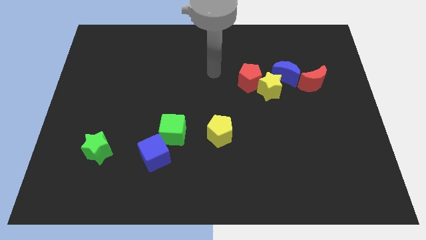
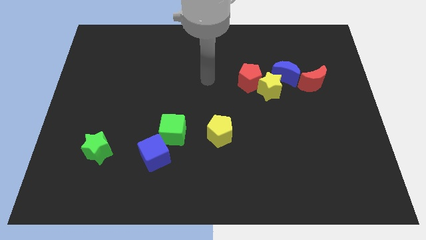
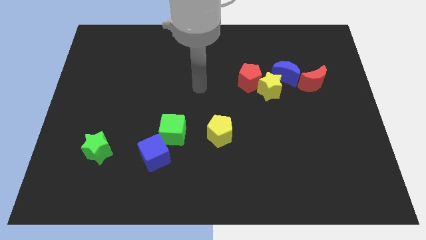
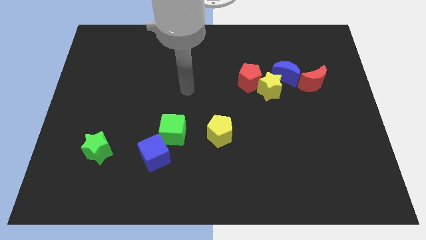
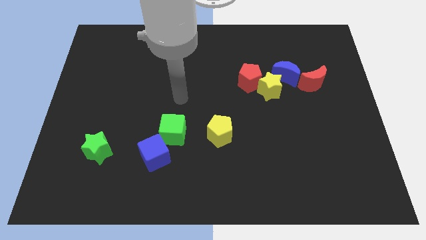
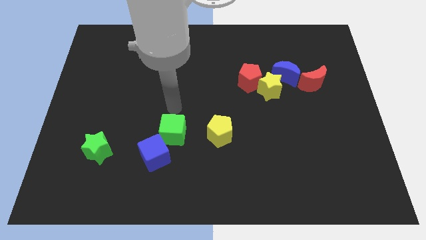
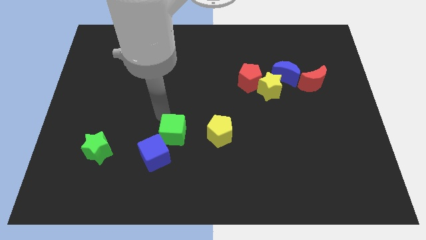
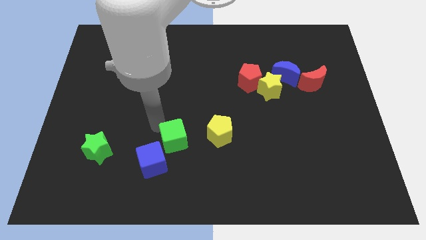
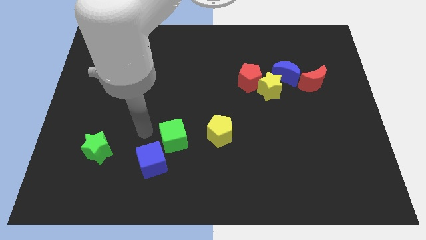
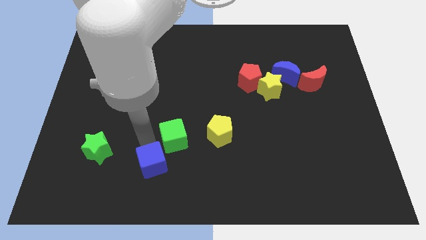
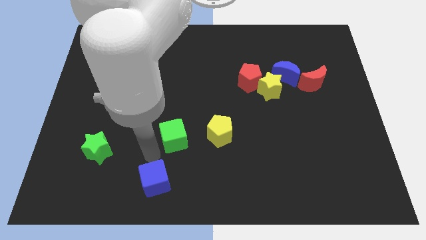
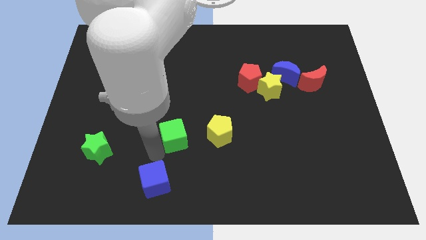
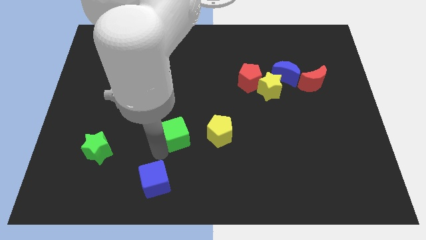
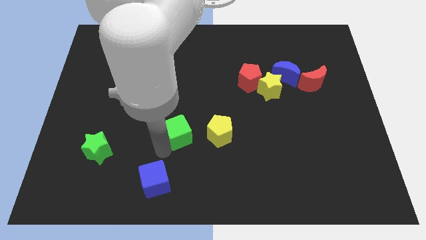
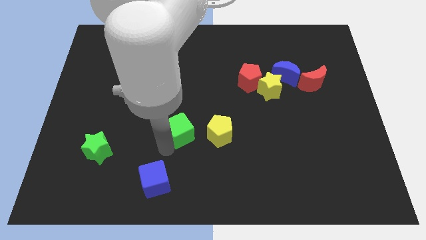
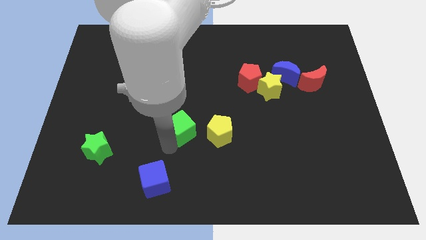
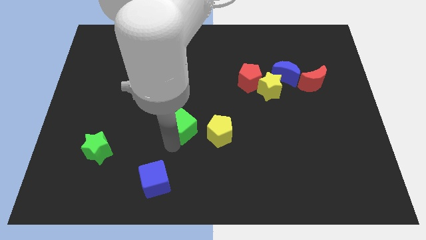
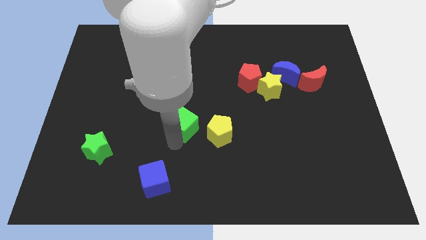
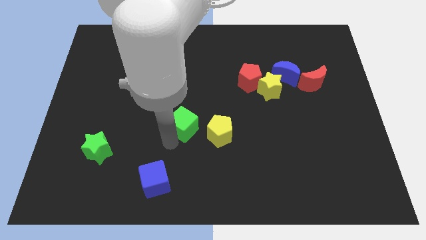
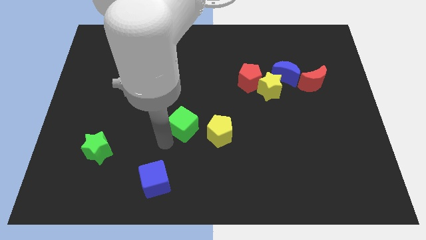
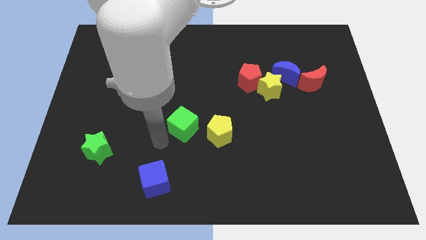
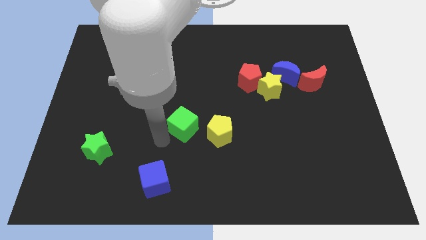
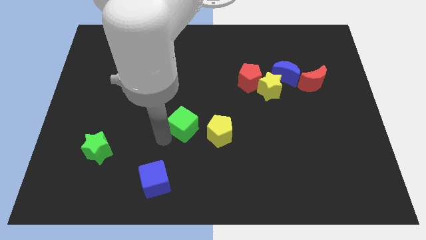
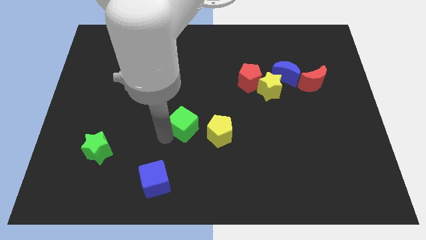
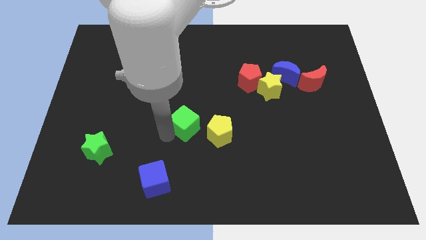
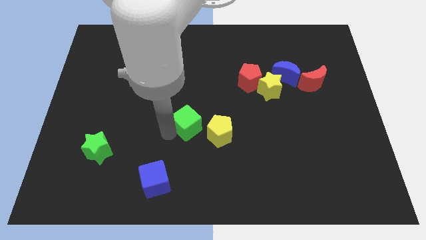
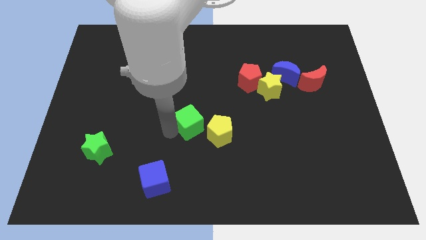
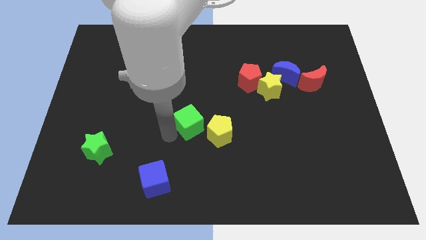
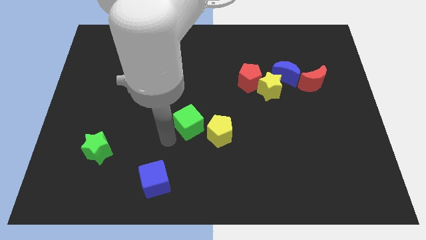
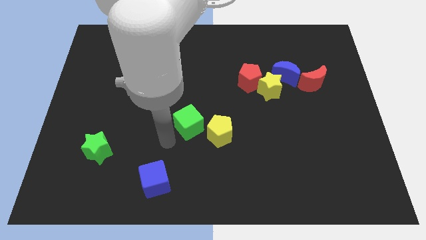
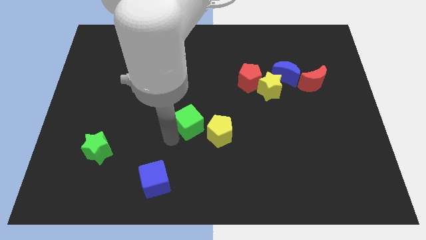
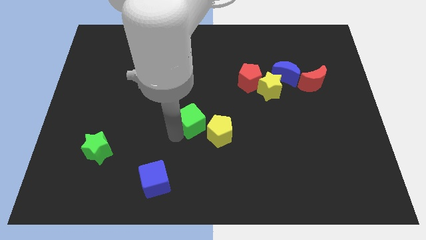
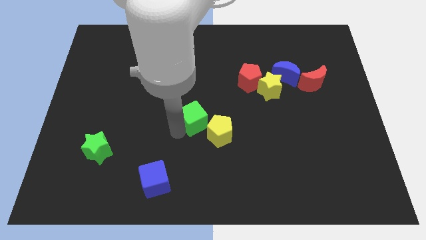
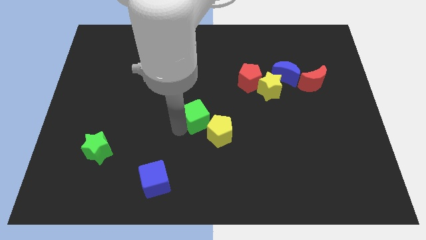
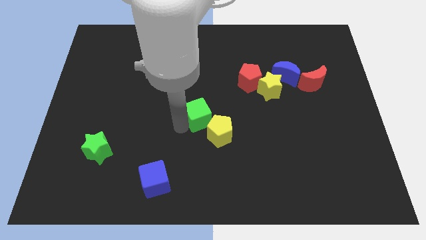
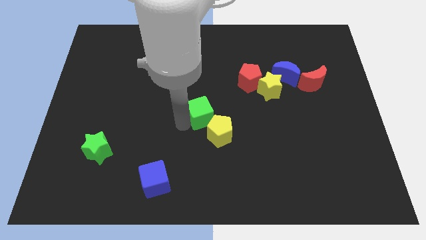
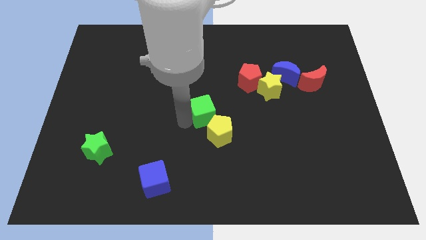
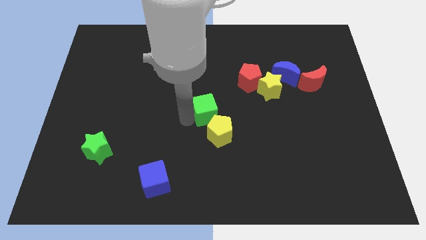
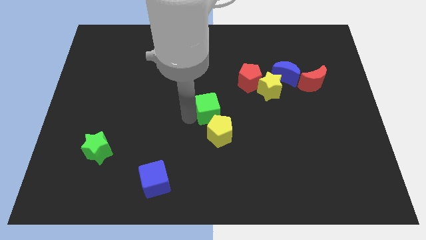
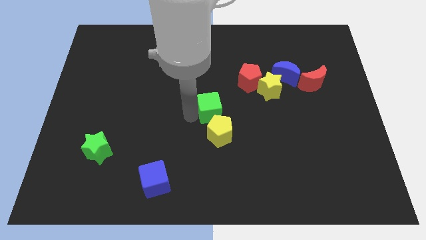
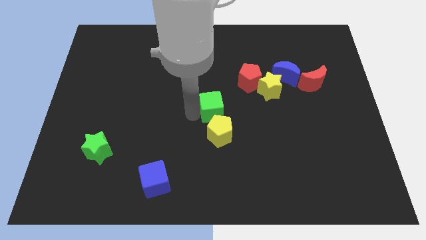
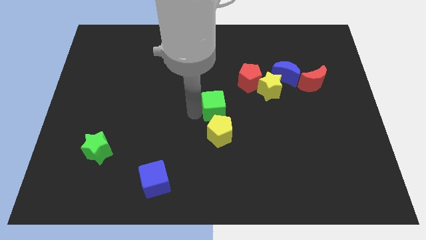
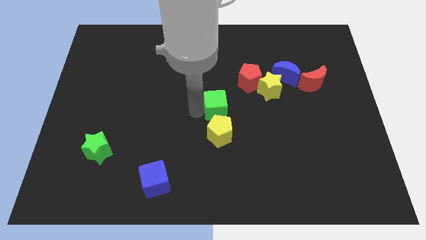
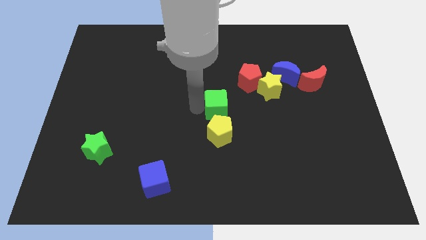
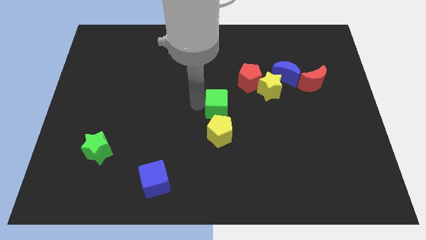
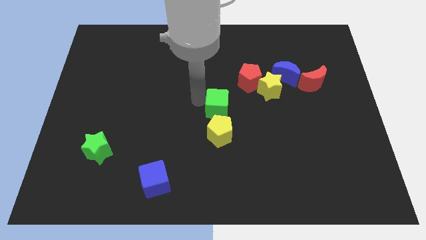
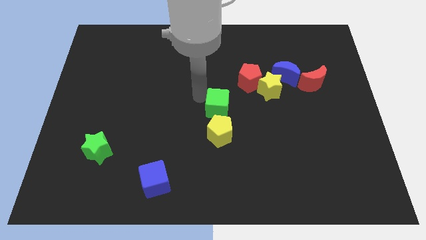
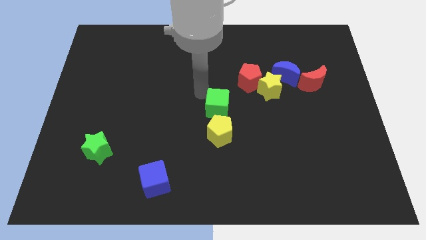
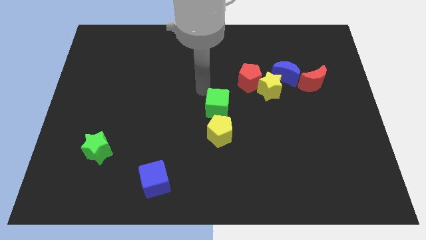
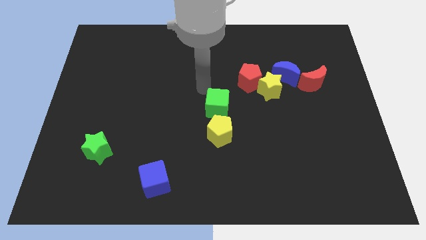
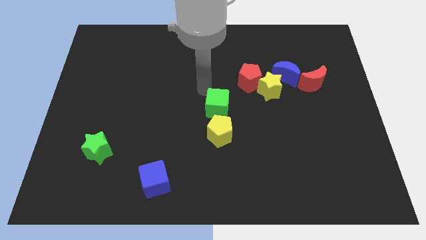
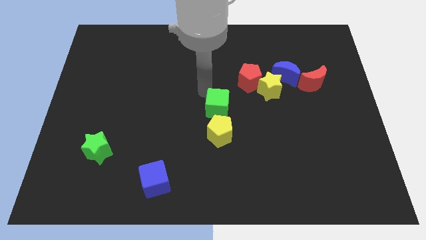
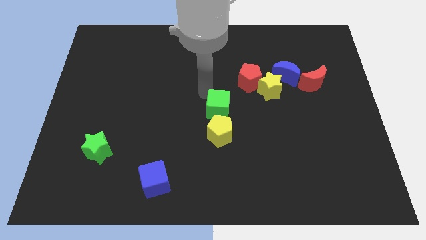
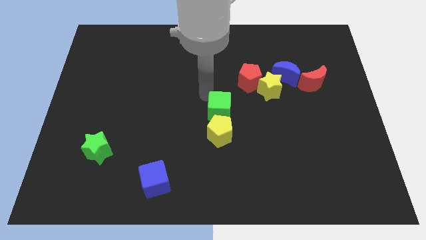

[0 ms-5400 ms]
slide the green cube diagonally up and to the right of the yellow pentagon

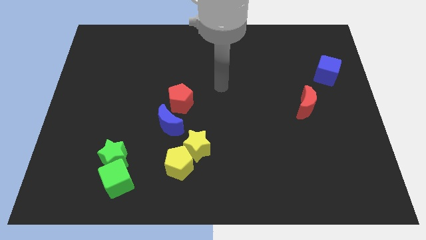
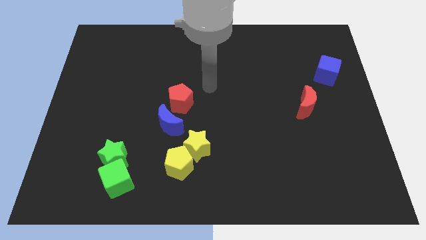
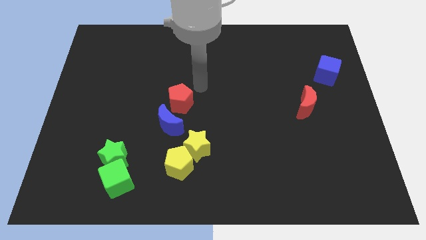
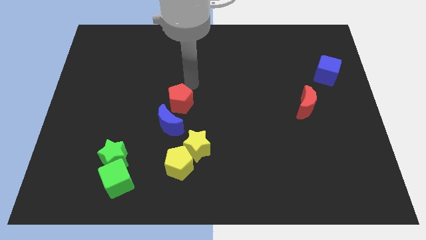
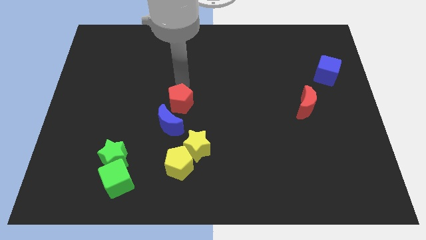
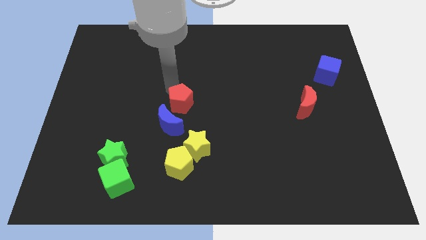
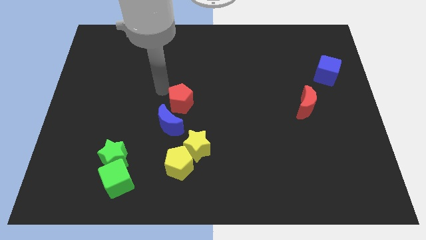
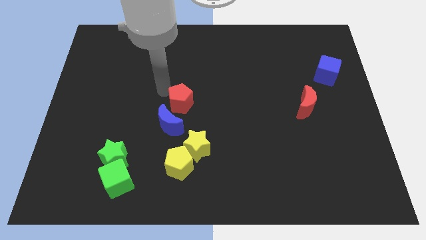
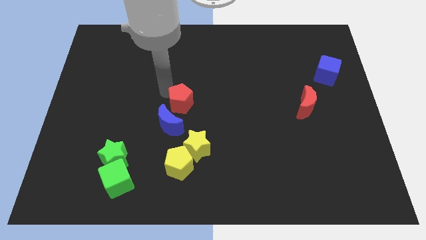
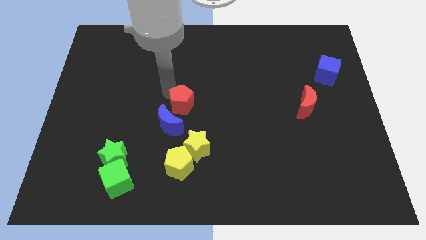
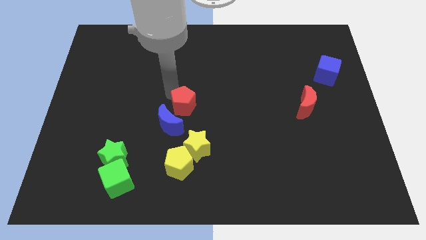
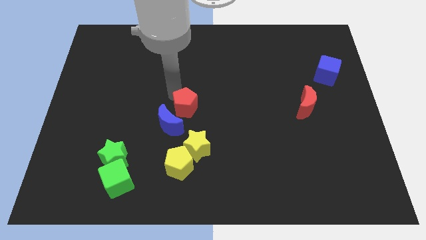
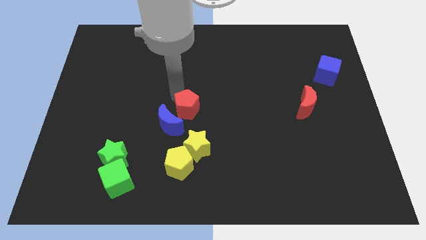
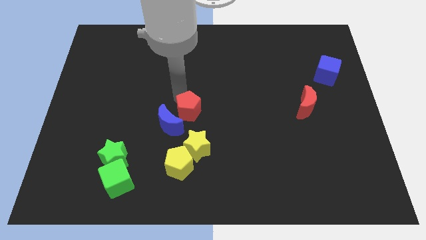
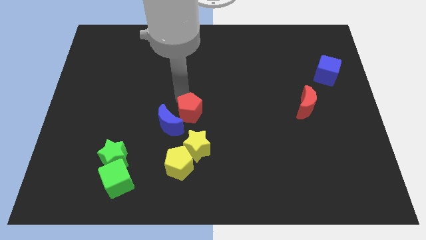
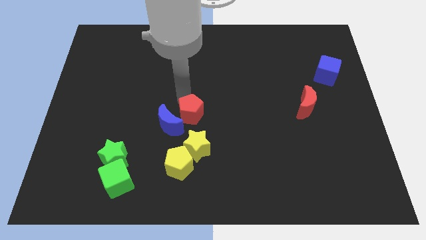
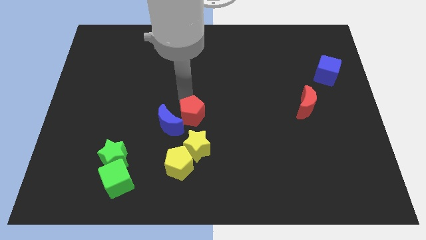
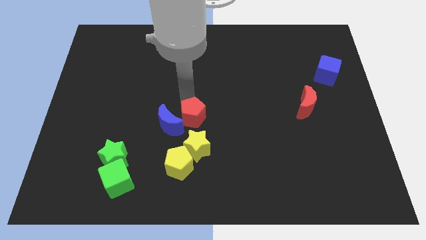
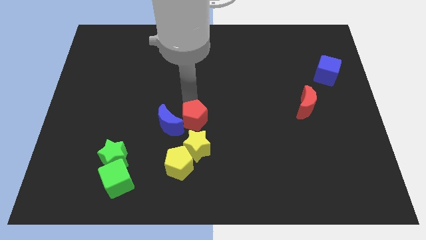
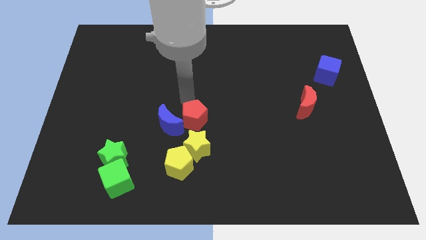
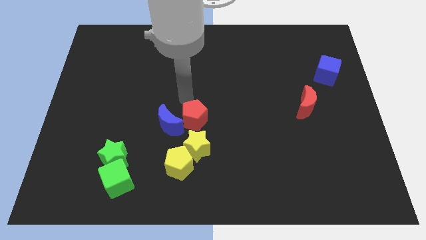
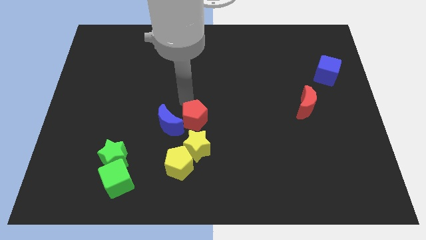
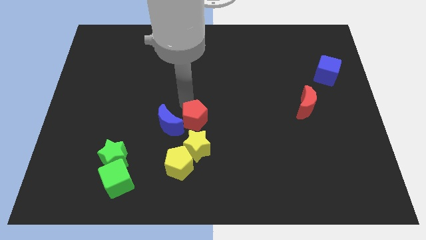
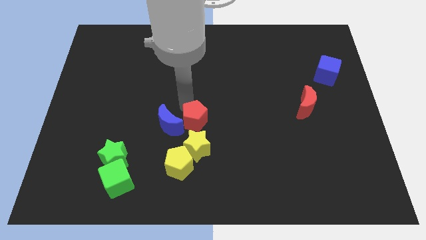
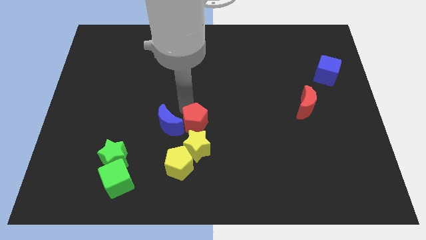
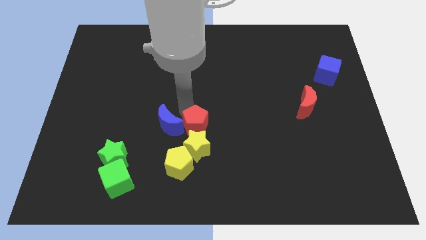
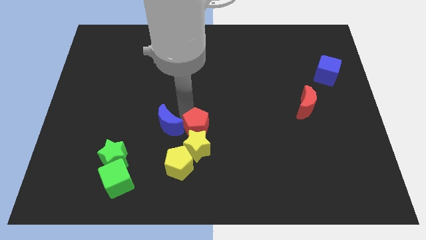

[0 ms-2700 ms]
push the red pentagon diagonally up and to the right of the yellow pentagon
